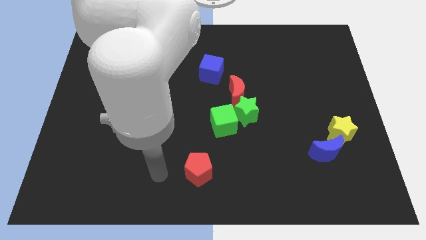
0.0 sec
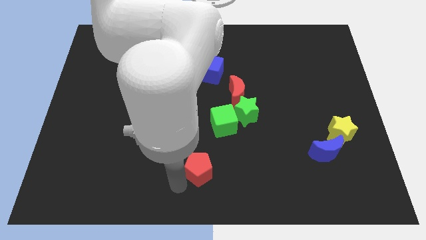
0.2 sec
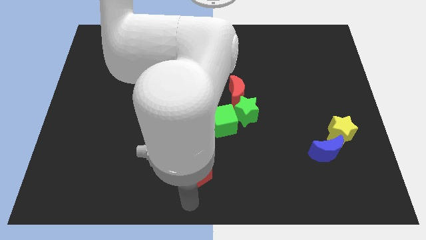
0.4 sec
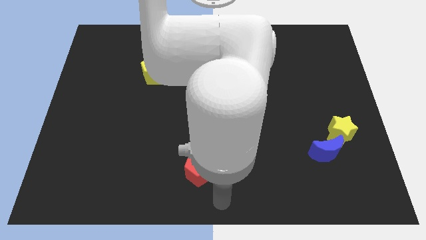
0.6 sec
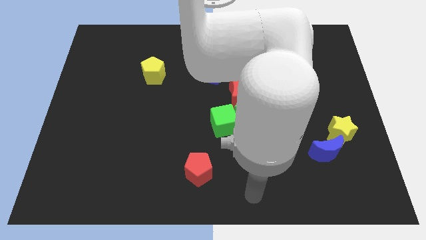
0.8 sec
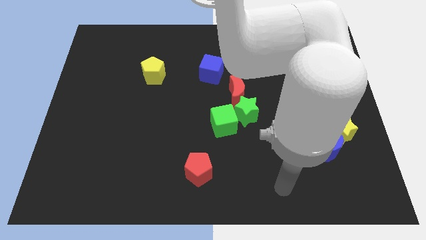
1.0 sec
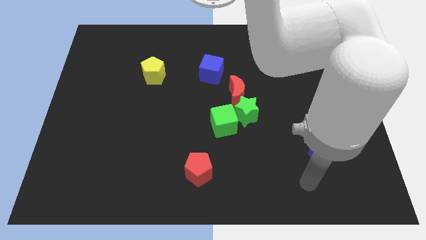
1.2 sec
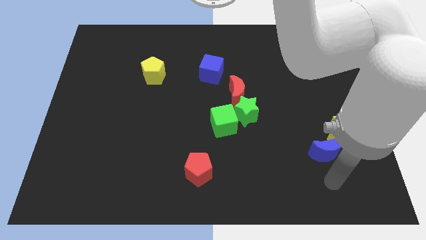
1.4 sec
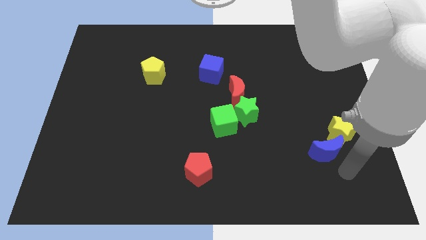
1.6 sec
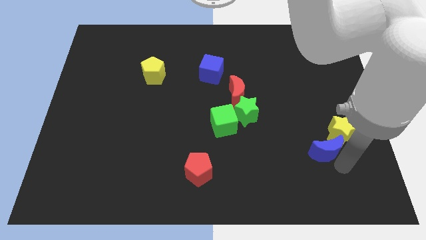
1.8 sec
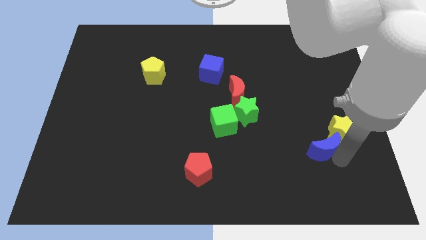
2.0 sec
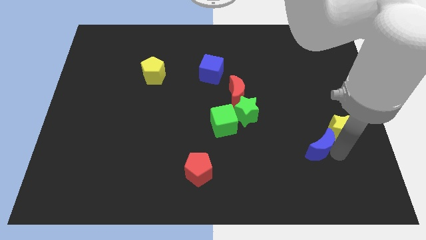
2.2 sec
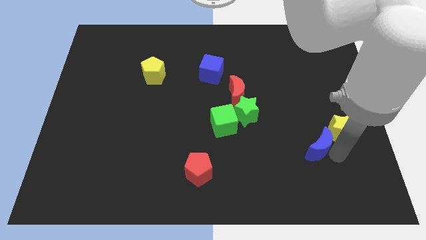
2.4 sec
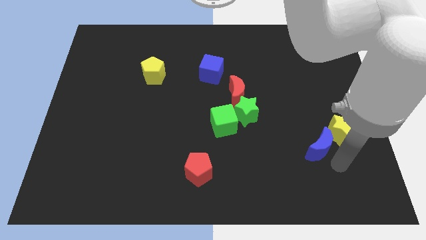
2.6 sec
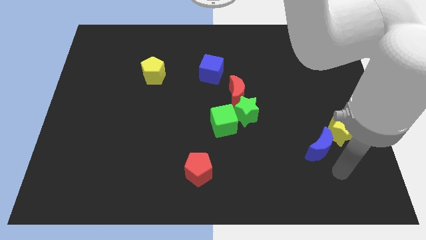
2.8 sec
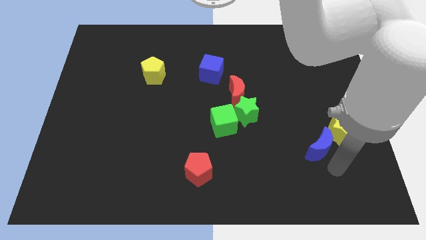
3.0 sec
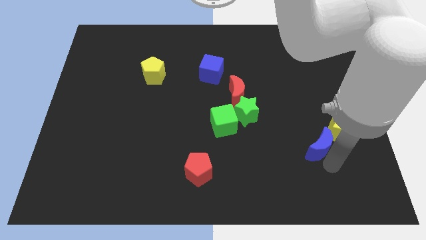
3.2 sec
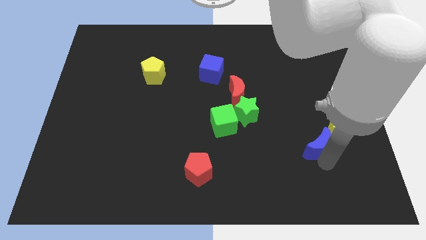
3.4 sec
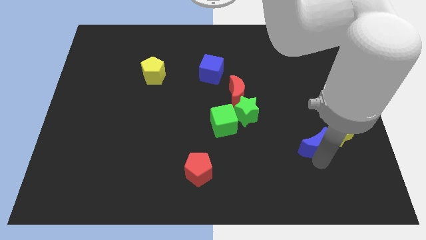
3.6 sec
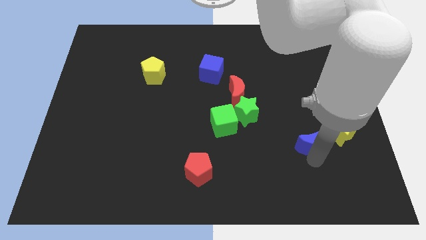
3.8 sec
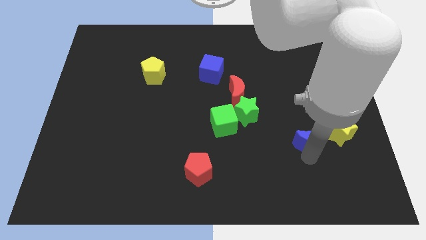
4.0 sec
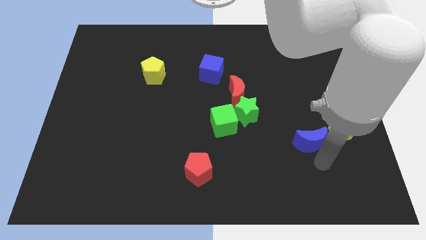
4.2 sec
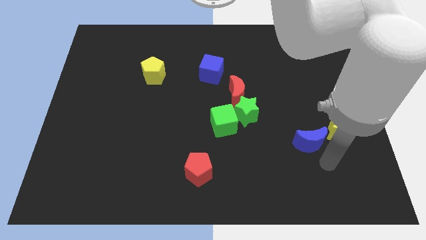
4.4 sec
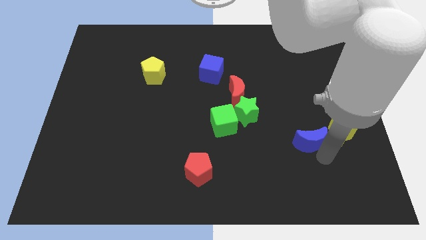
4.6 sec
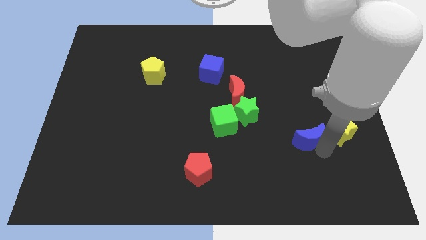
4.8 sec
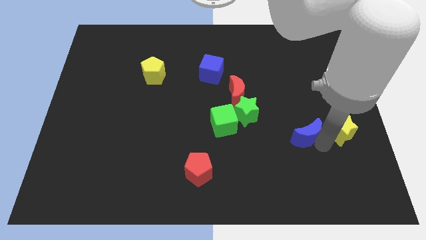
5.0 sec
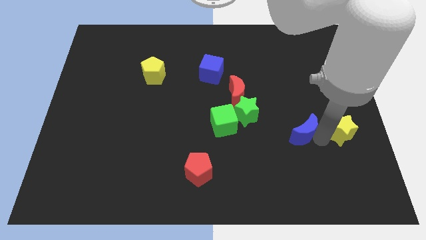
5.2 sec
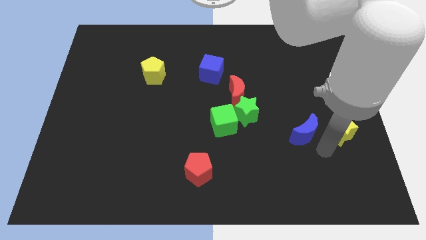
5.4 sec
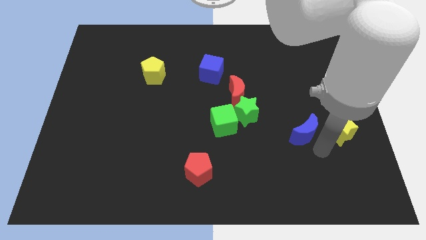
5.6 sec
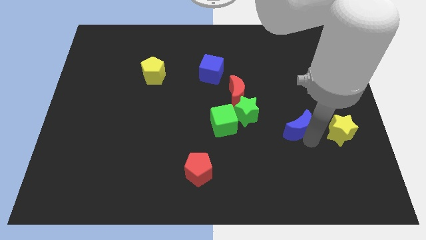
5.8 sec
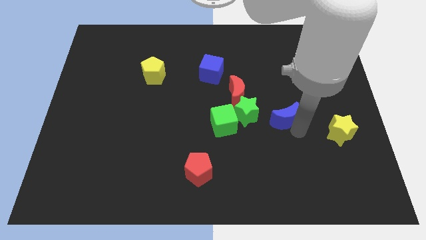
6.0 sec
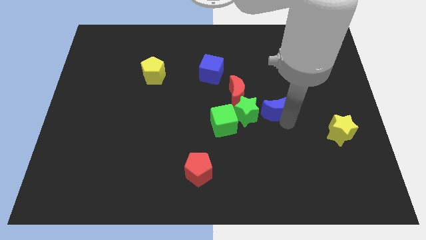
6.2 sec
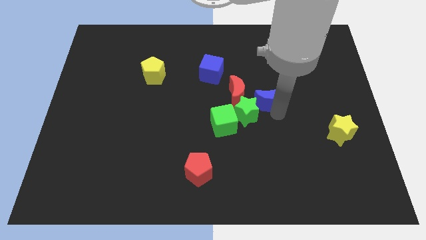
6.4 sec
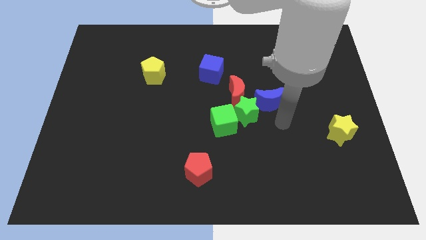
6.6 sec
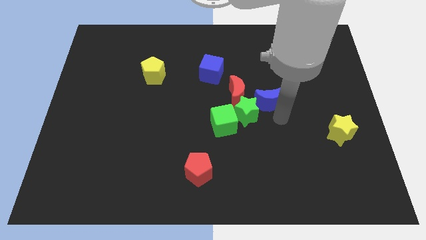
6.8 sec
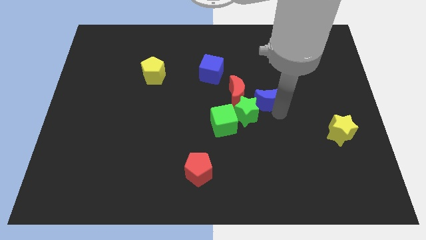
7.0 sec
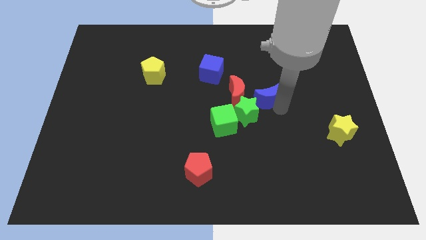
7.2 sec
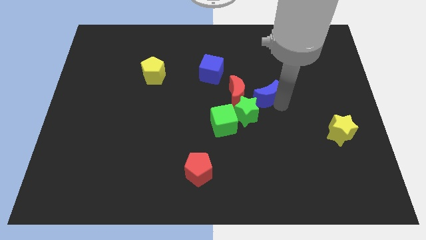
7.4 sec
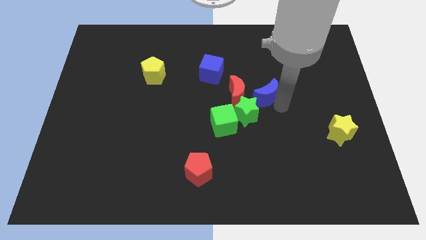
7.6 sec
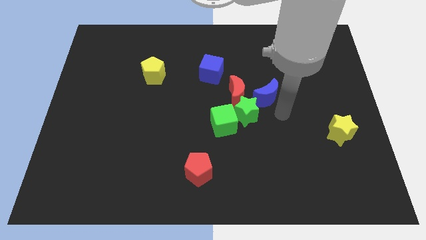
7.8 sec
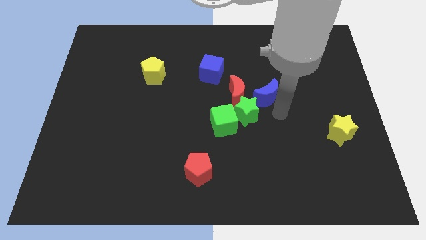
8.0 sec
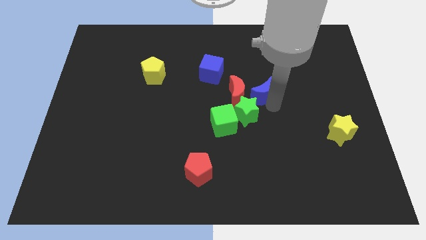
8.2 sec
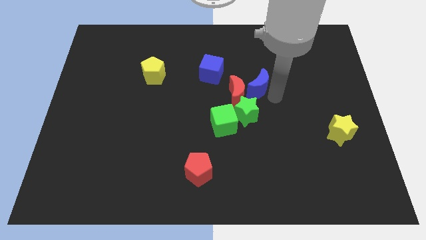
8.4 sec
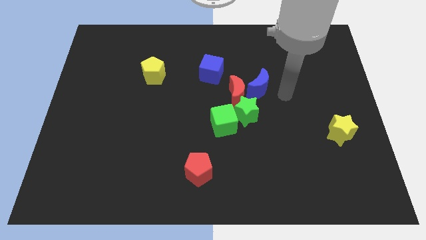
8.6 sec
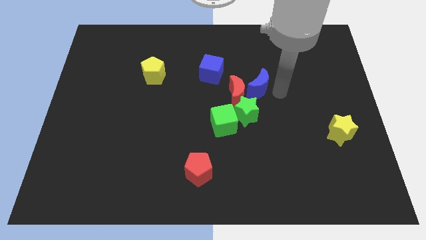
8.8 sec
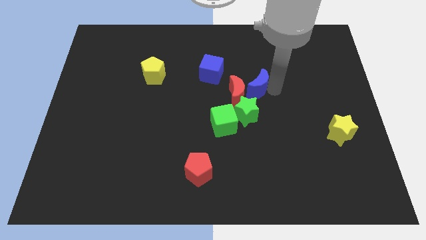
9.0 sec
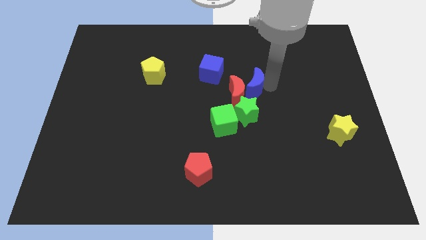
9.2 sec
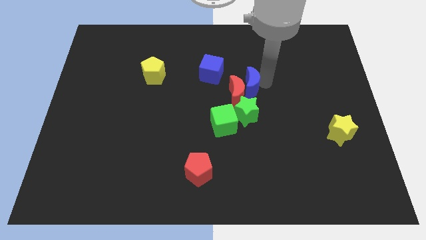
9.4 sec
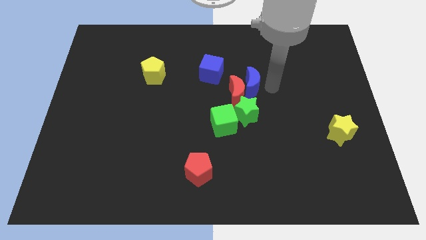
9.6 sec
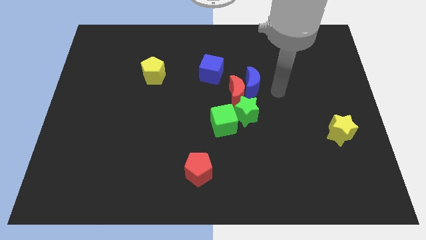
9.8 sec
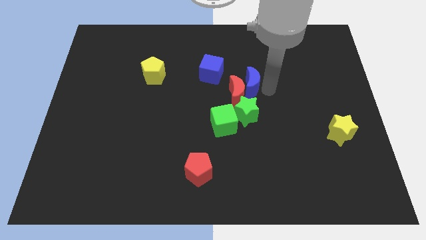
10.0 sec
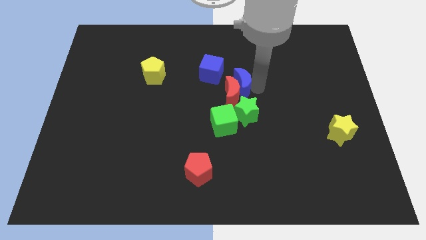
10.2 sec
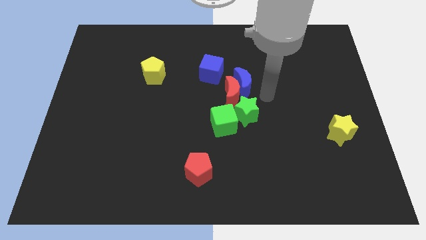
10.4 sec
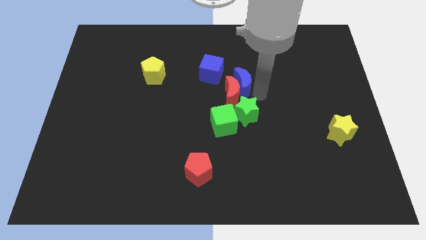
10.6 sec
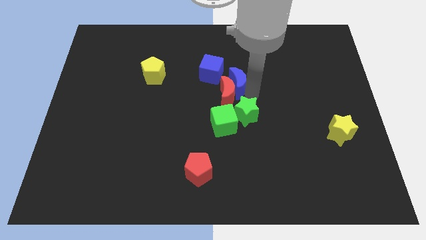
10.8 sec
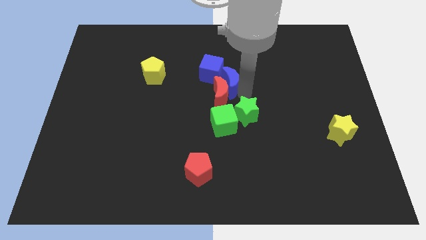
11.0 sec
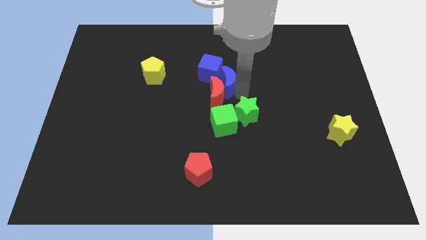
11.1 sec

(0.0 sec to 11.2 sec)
put the blue moon next to the blue cube

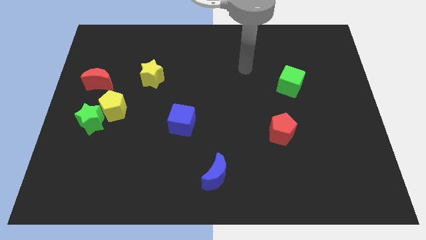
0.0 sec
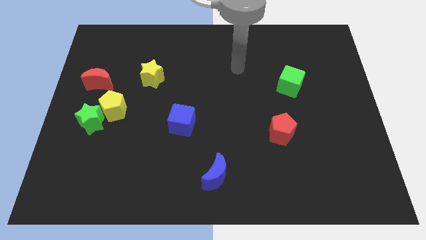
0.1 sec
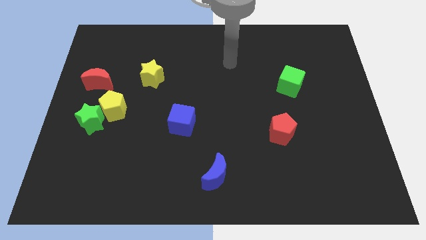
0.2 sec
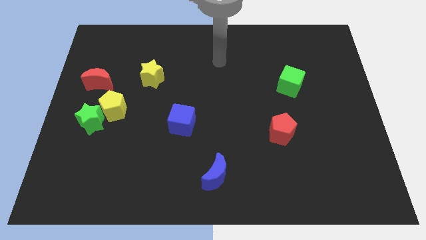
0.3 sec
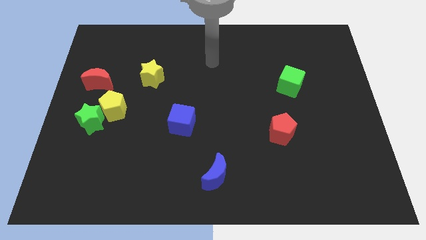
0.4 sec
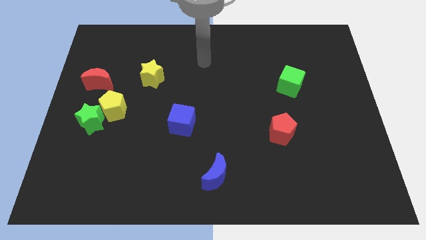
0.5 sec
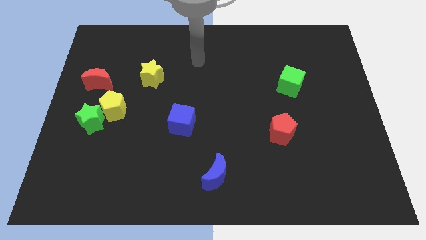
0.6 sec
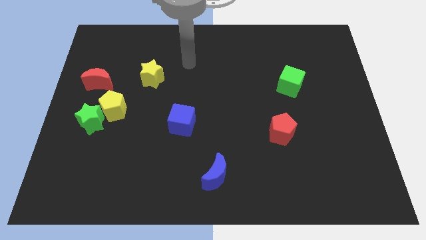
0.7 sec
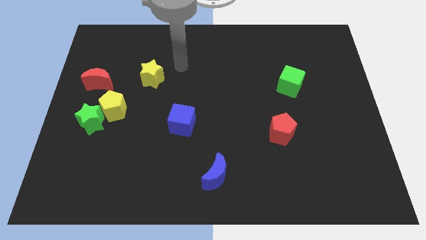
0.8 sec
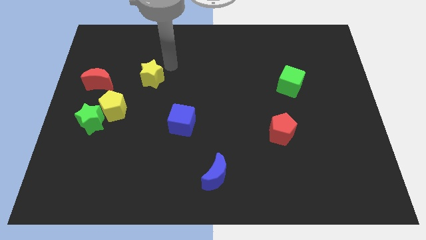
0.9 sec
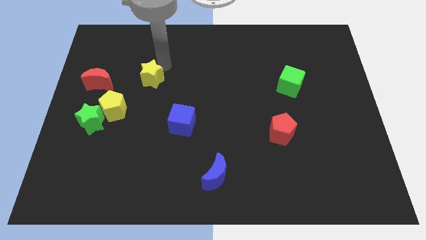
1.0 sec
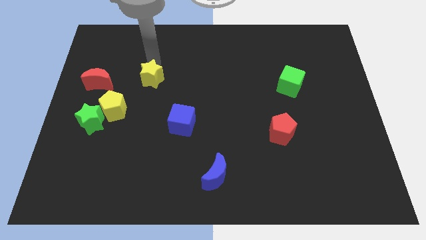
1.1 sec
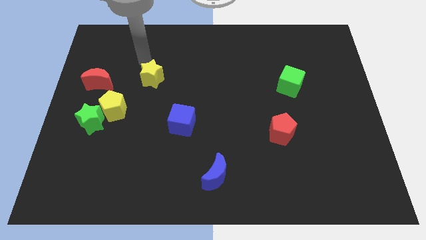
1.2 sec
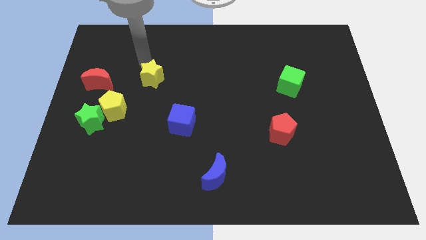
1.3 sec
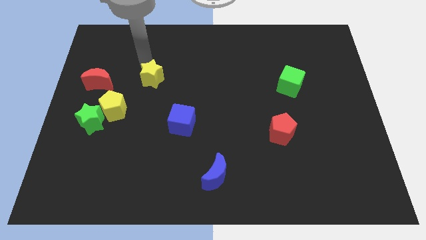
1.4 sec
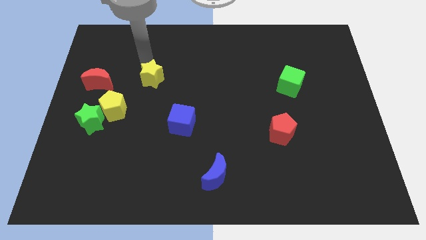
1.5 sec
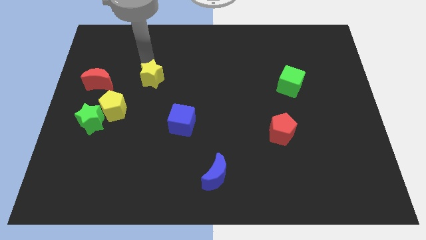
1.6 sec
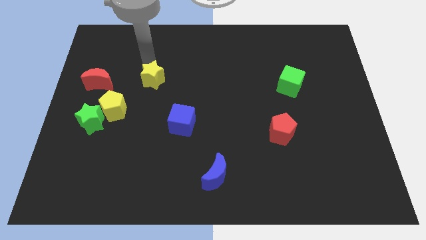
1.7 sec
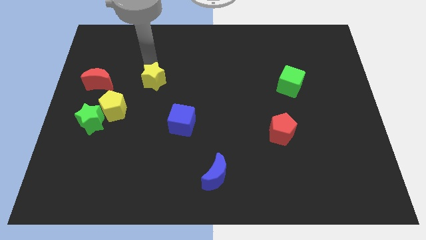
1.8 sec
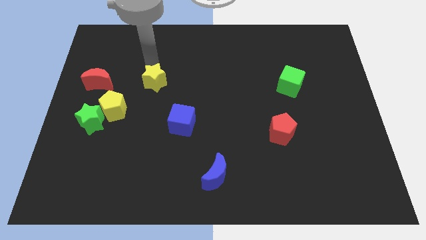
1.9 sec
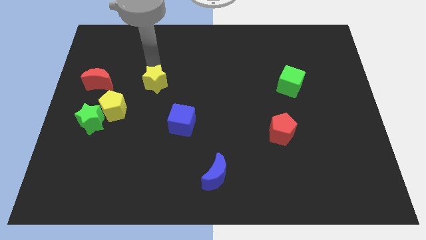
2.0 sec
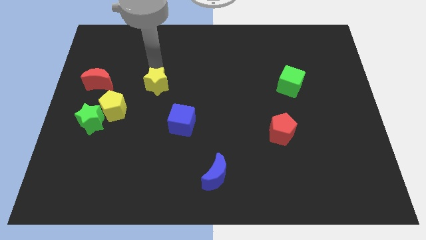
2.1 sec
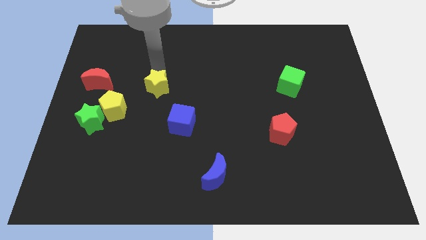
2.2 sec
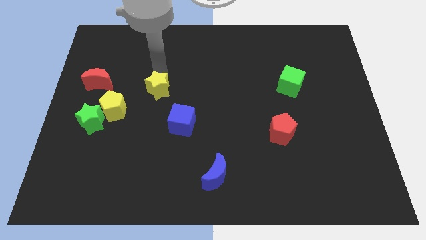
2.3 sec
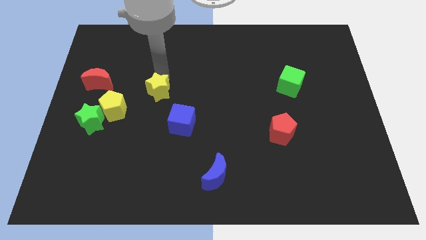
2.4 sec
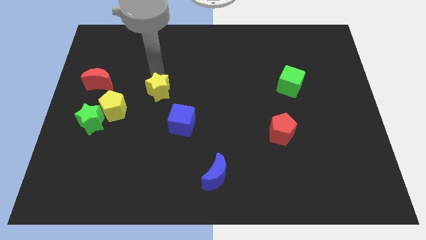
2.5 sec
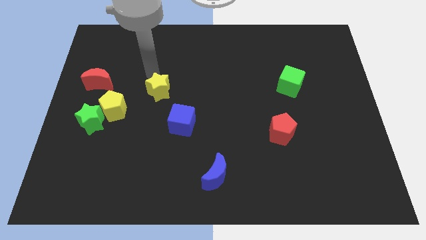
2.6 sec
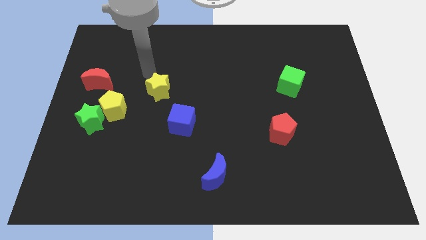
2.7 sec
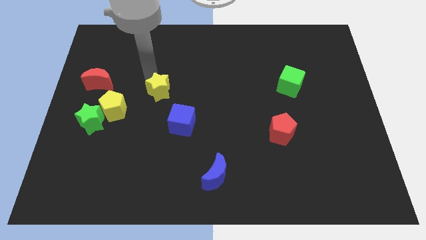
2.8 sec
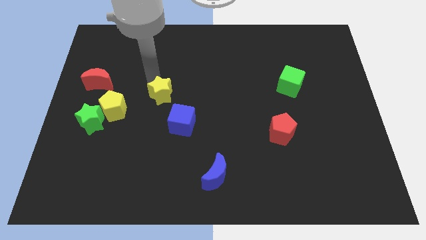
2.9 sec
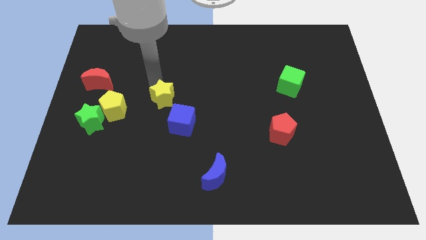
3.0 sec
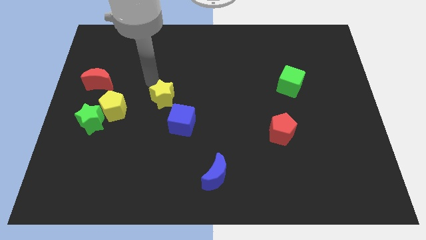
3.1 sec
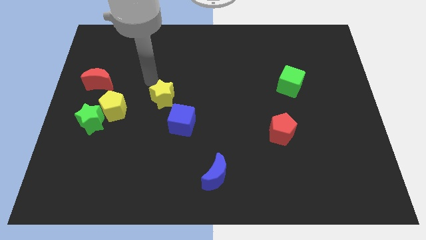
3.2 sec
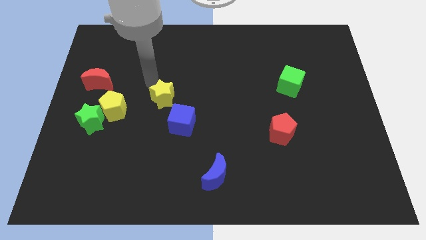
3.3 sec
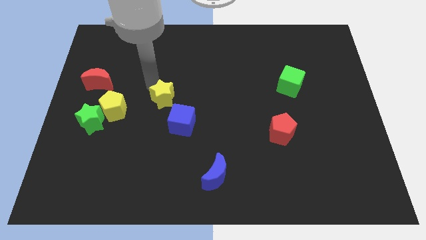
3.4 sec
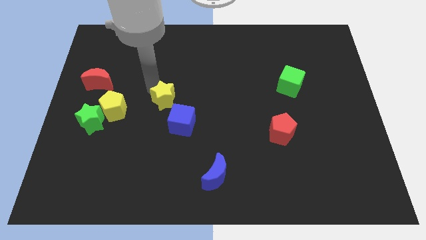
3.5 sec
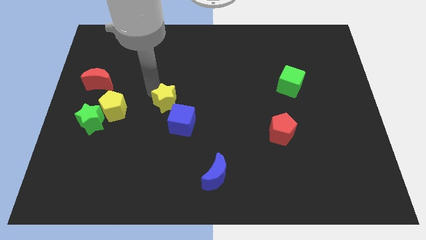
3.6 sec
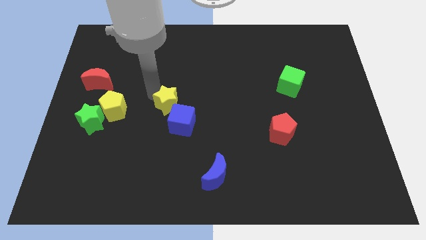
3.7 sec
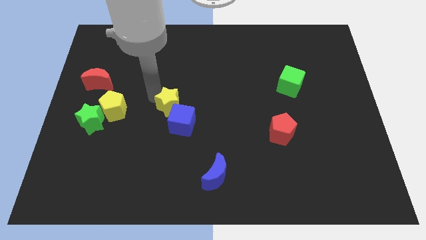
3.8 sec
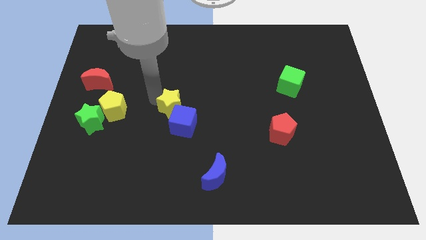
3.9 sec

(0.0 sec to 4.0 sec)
push the yellow star next to the blue cube
